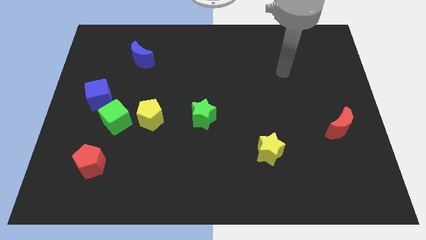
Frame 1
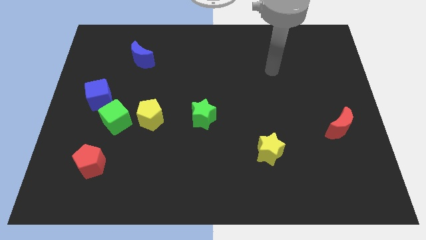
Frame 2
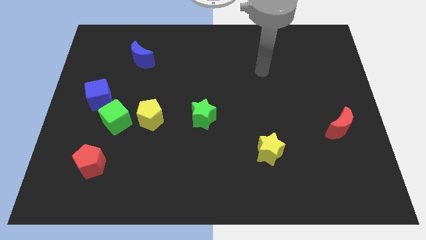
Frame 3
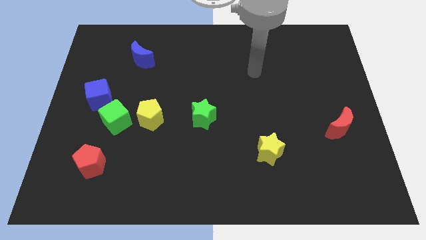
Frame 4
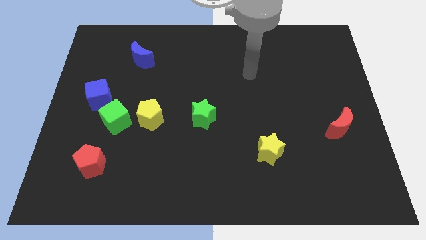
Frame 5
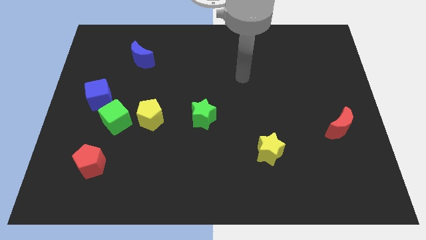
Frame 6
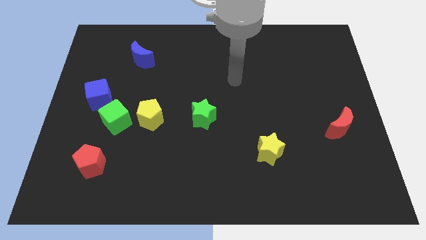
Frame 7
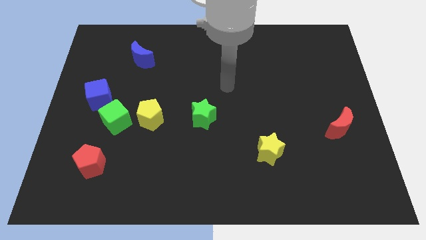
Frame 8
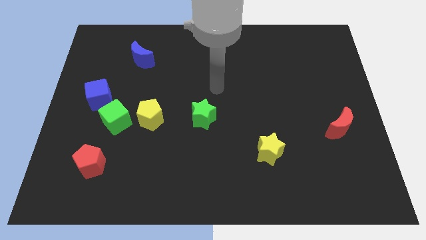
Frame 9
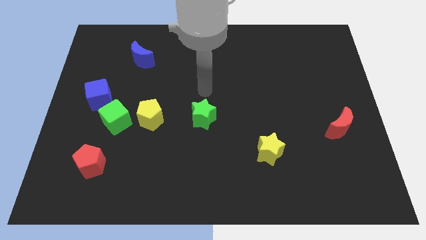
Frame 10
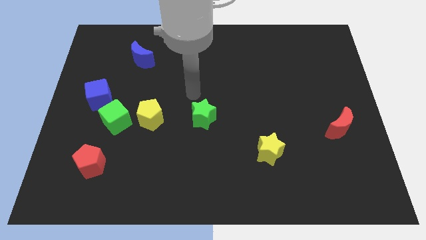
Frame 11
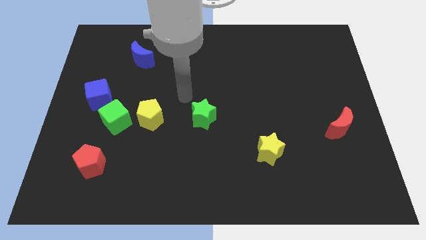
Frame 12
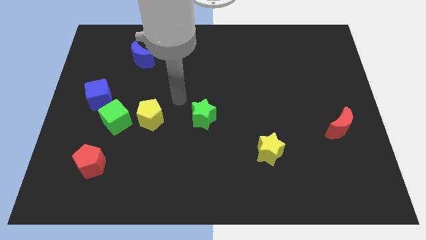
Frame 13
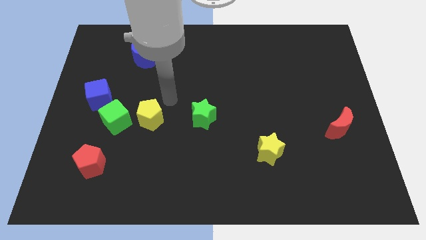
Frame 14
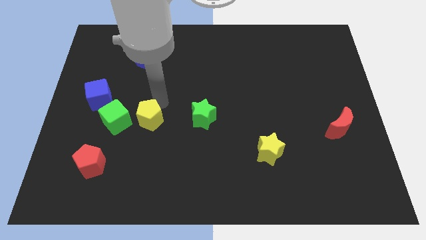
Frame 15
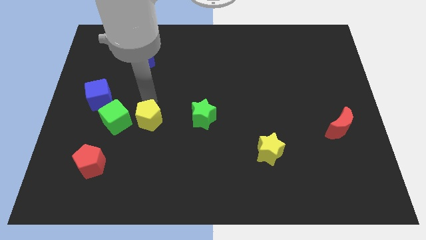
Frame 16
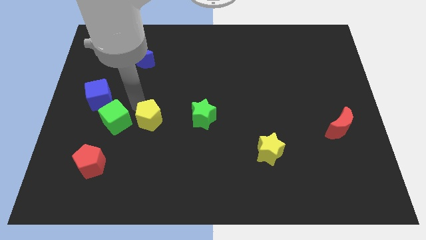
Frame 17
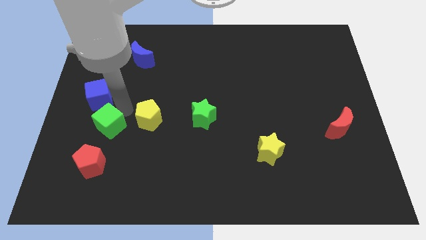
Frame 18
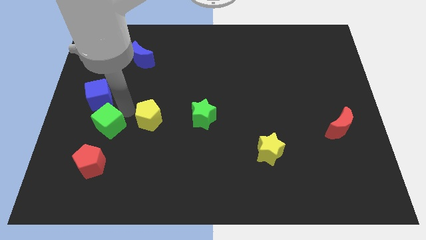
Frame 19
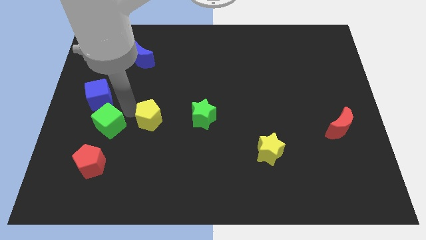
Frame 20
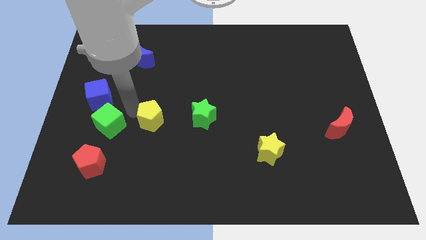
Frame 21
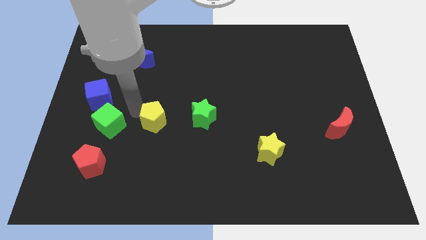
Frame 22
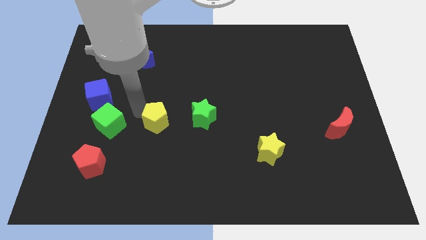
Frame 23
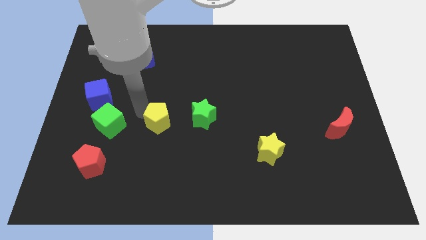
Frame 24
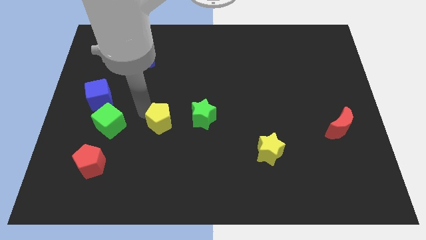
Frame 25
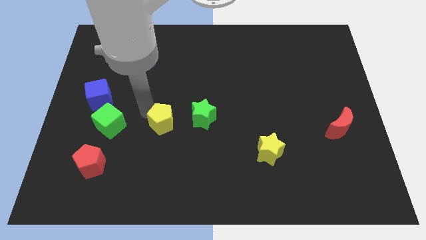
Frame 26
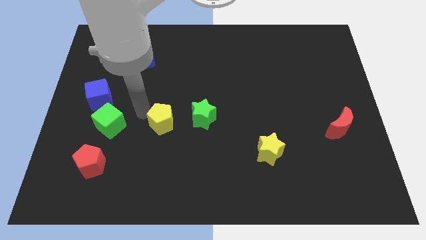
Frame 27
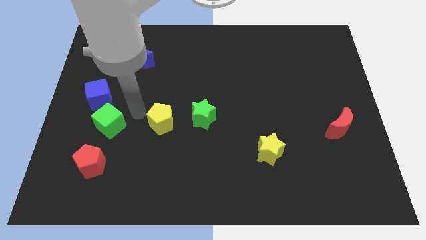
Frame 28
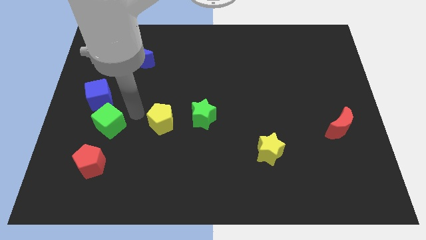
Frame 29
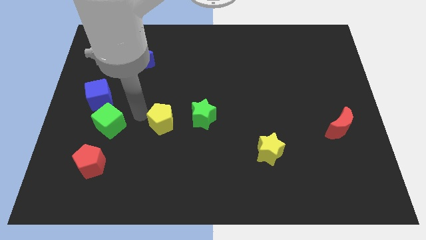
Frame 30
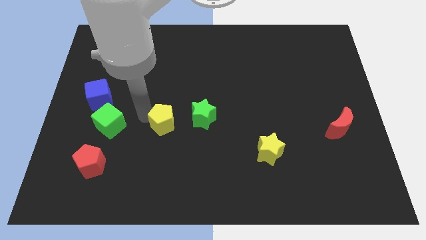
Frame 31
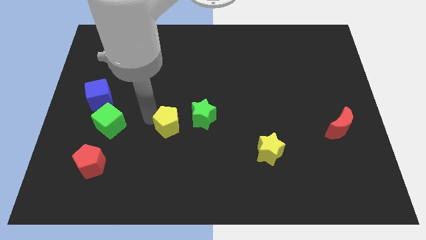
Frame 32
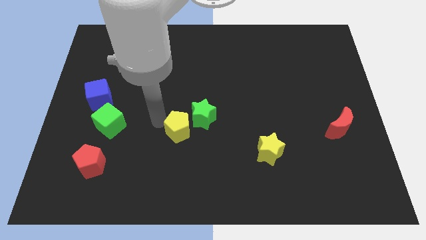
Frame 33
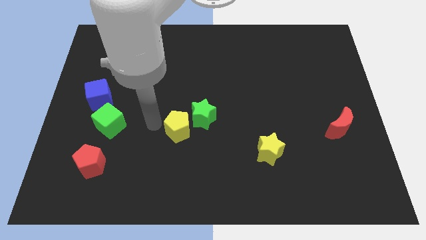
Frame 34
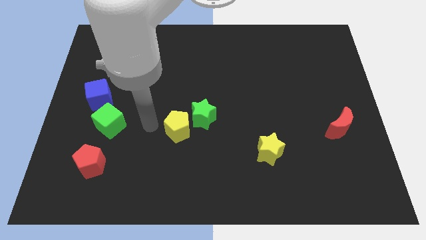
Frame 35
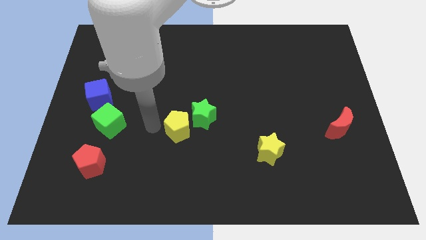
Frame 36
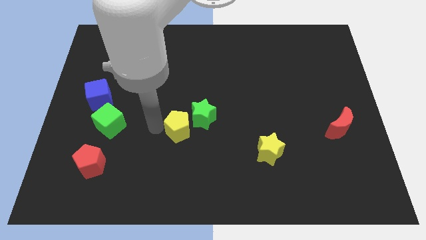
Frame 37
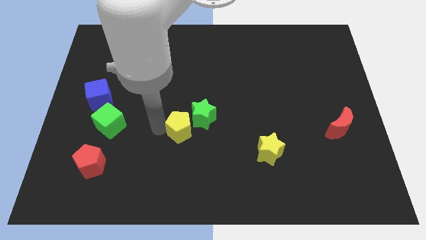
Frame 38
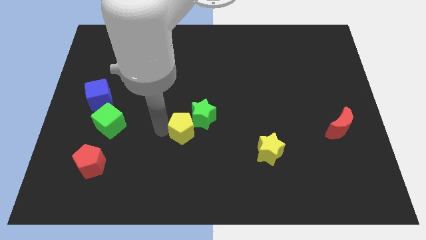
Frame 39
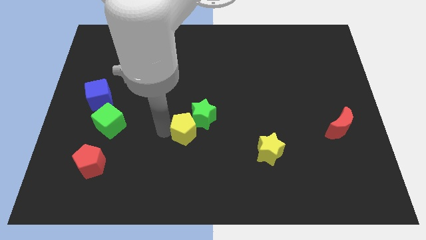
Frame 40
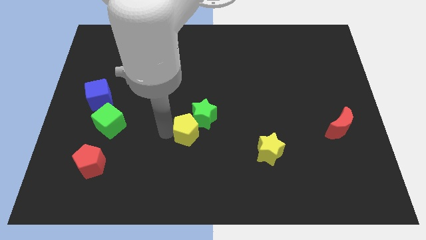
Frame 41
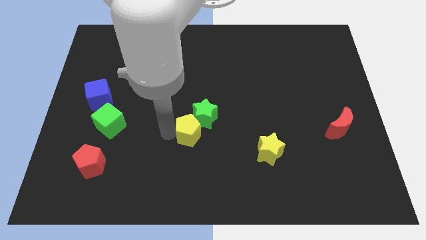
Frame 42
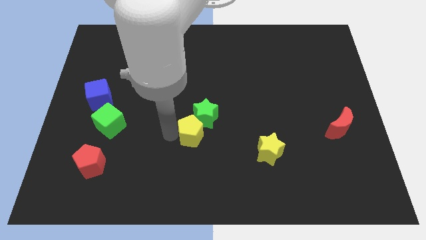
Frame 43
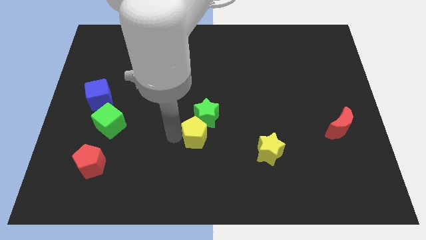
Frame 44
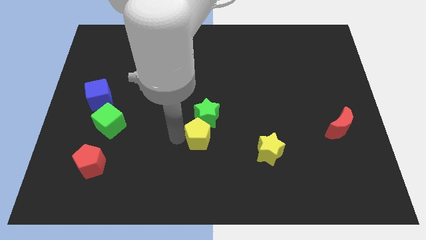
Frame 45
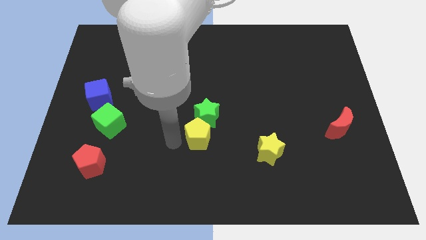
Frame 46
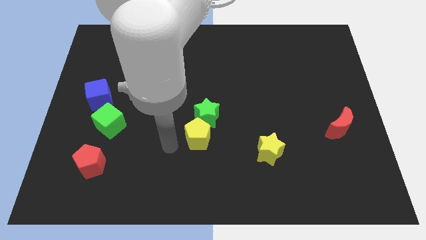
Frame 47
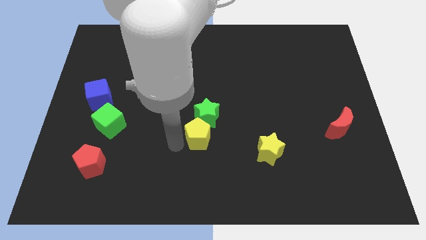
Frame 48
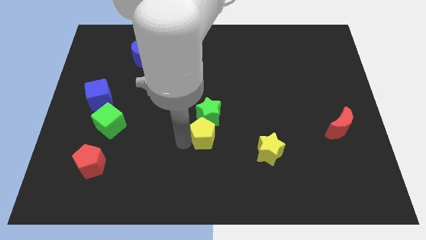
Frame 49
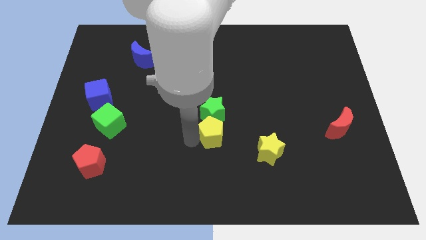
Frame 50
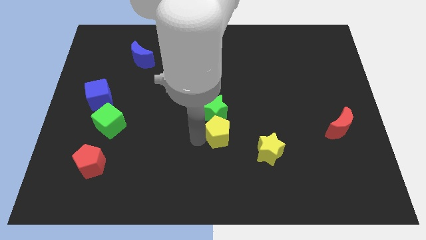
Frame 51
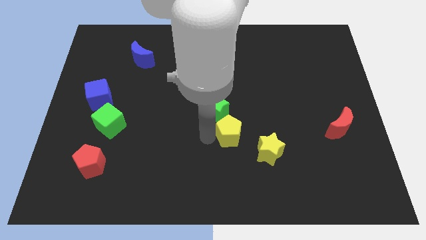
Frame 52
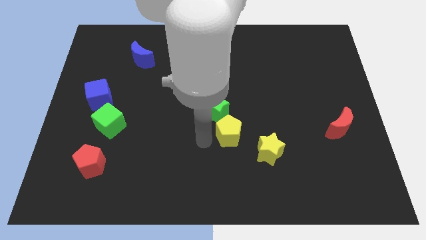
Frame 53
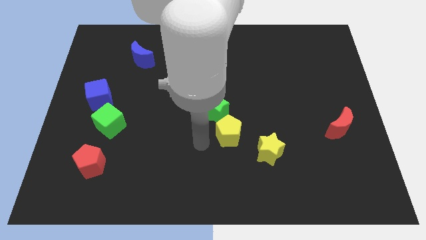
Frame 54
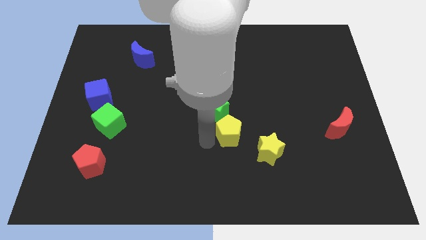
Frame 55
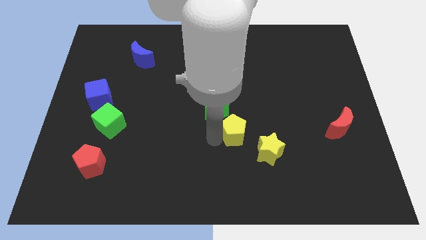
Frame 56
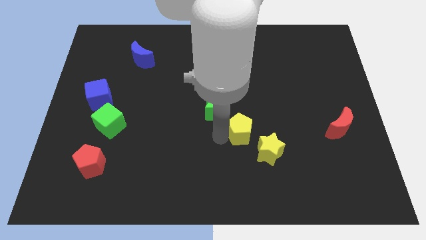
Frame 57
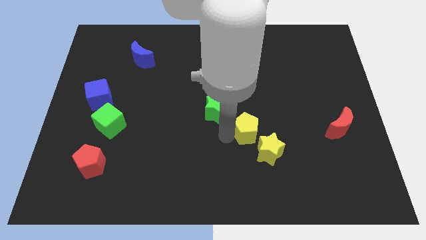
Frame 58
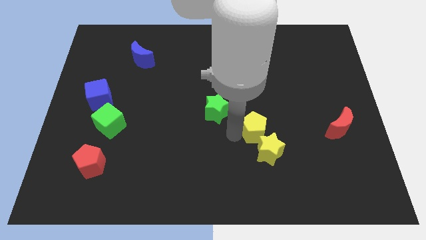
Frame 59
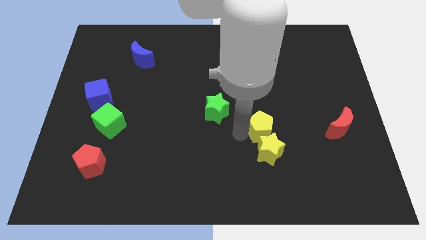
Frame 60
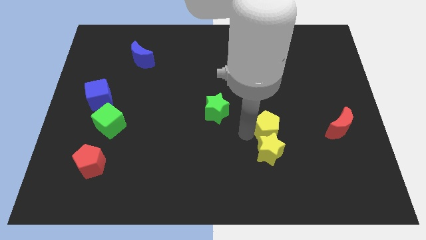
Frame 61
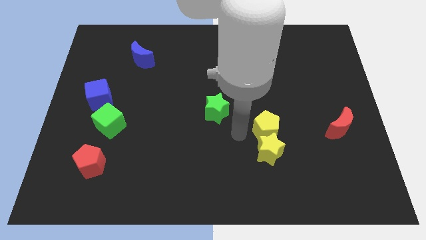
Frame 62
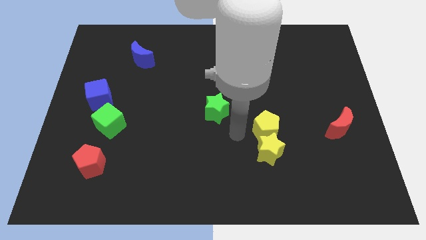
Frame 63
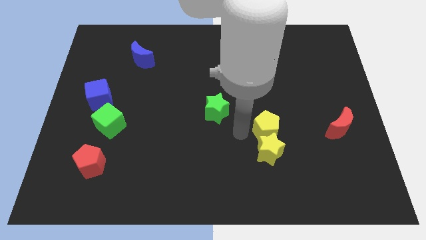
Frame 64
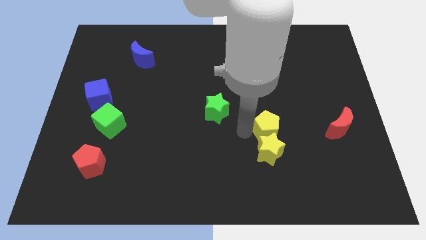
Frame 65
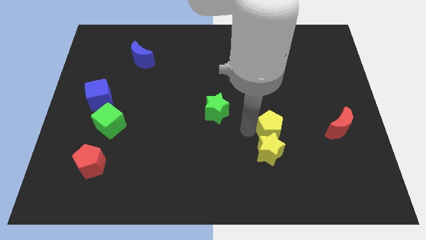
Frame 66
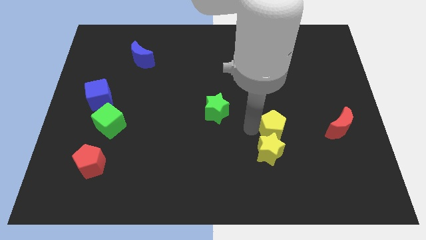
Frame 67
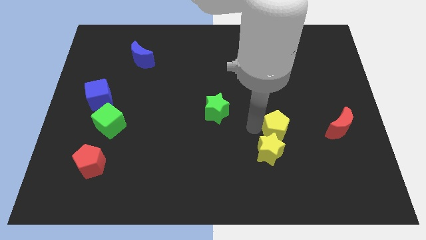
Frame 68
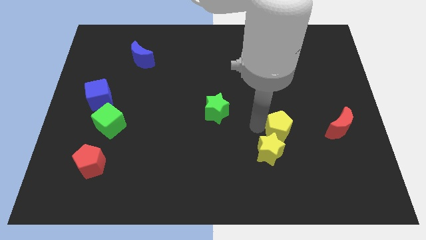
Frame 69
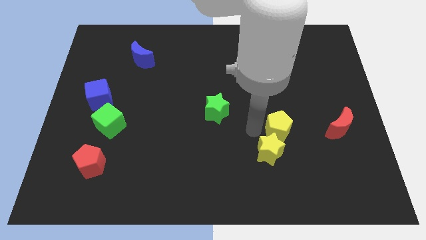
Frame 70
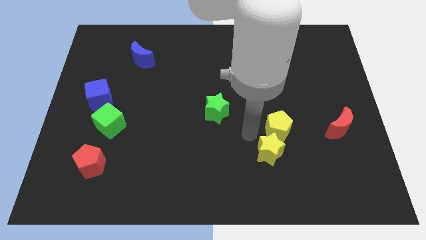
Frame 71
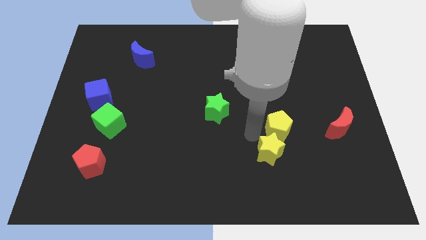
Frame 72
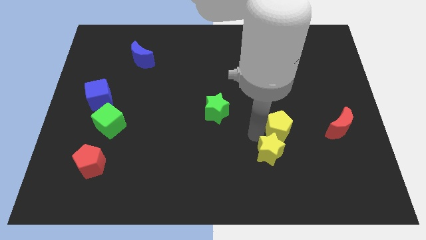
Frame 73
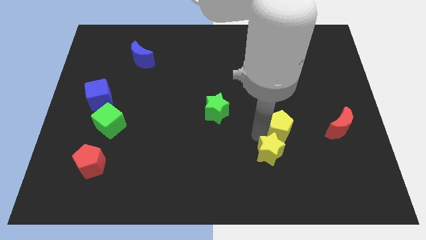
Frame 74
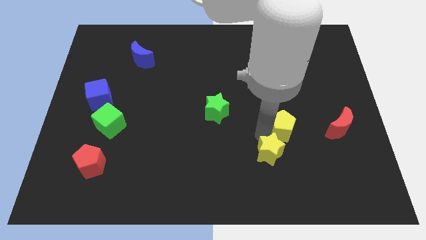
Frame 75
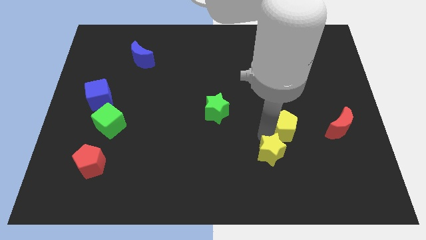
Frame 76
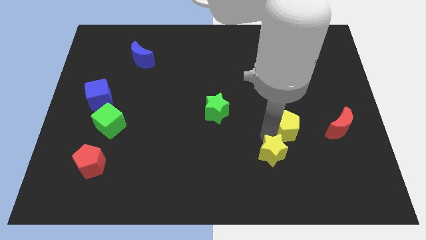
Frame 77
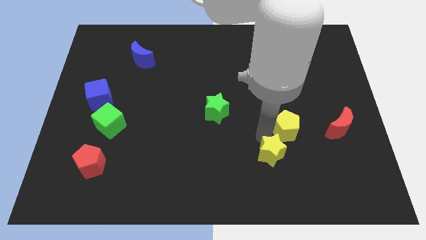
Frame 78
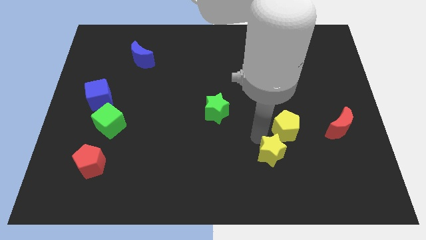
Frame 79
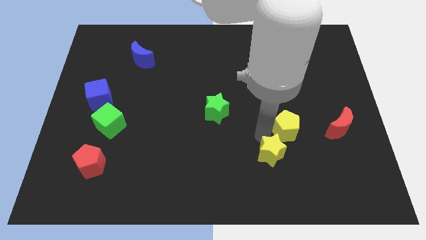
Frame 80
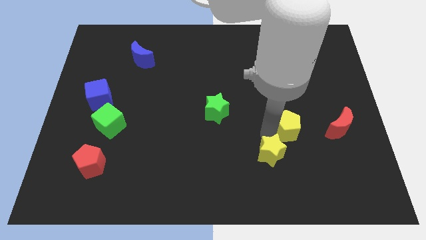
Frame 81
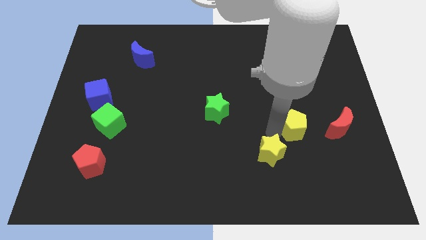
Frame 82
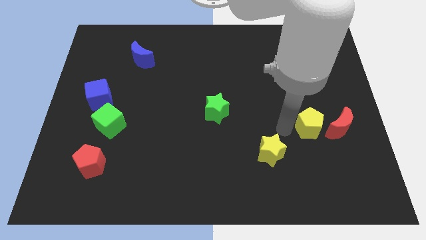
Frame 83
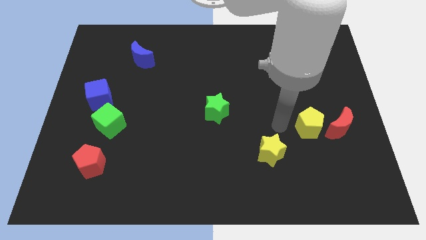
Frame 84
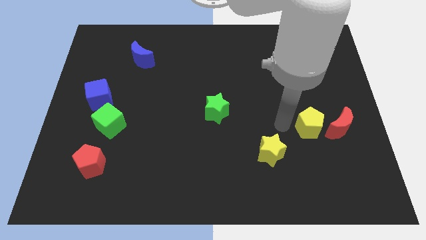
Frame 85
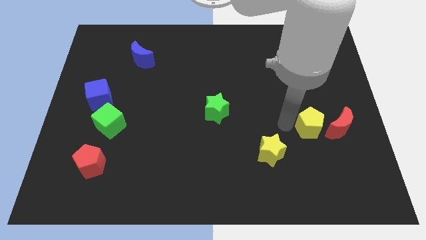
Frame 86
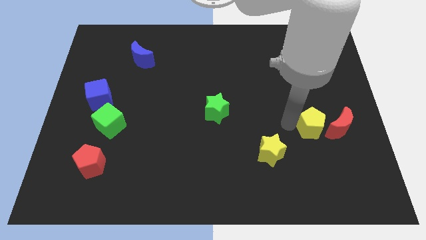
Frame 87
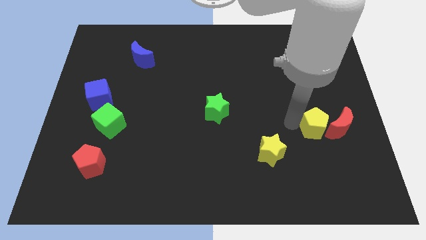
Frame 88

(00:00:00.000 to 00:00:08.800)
push the yellow pentagon towards the red moon
